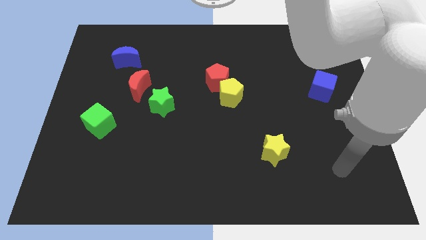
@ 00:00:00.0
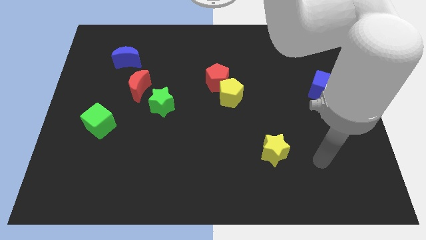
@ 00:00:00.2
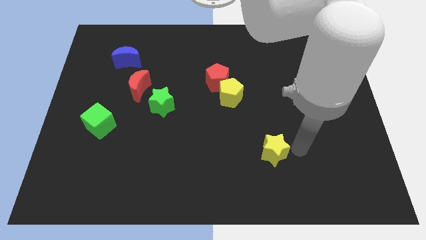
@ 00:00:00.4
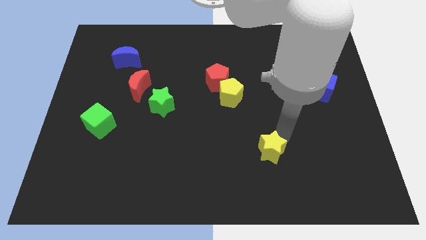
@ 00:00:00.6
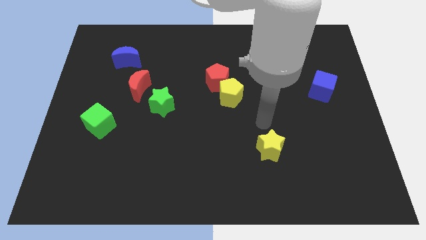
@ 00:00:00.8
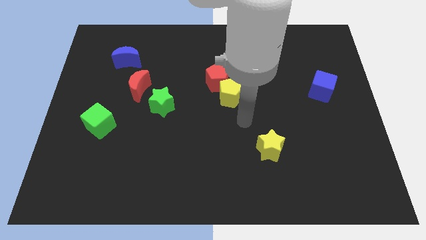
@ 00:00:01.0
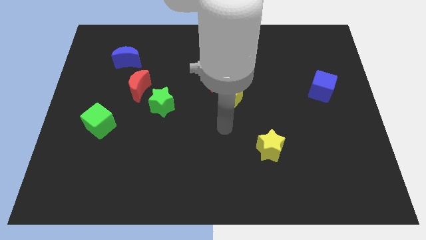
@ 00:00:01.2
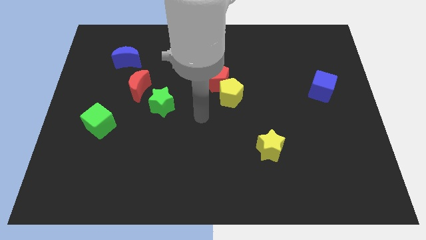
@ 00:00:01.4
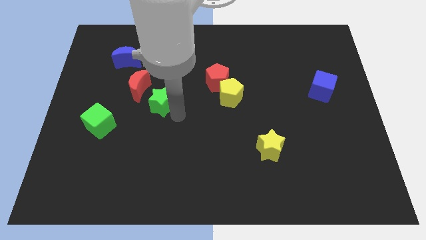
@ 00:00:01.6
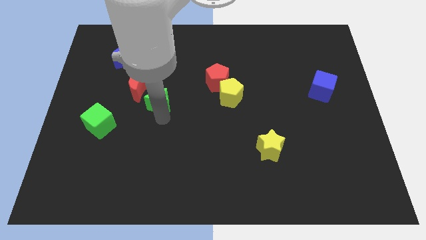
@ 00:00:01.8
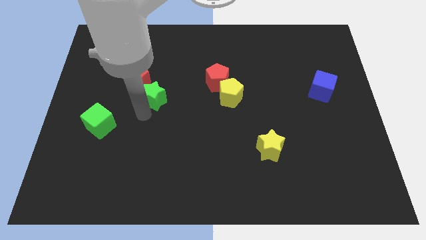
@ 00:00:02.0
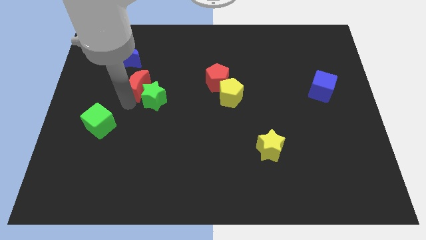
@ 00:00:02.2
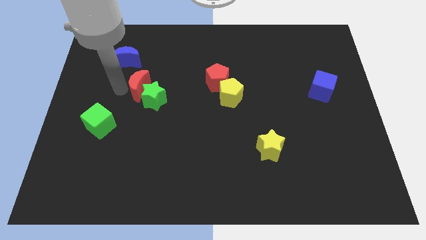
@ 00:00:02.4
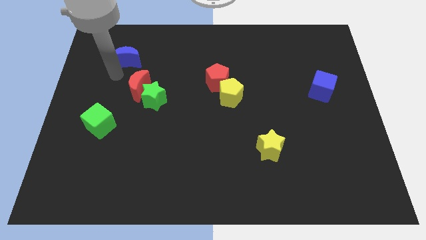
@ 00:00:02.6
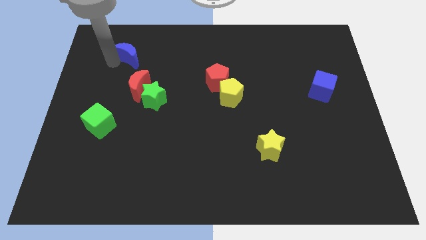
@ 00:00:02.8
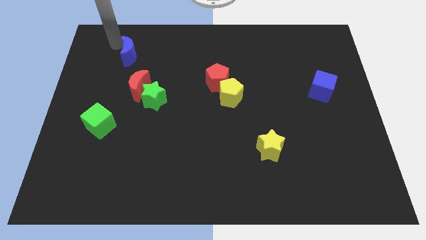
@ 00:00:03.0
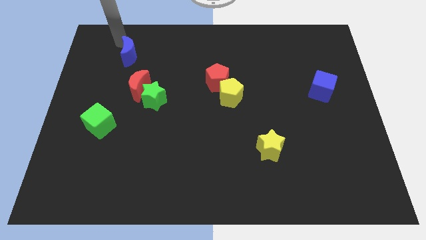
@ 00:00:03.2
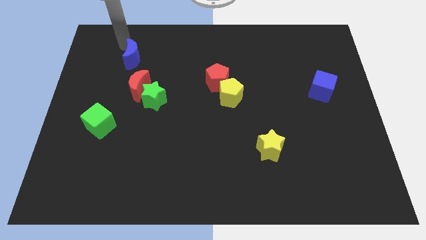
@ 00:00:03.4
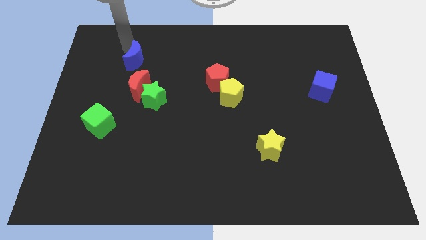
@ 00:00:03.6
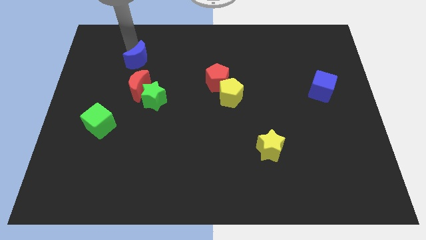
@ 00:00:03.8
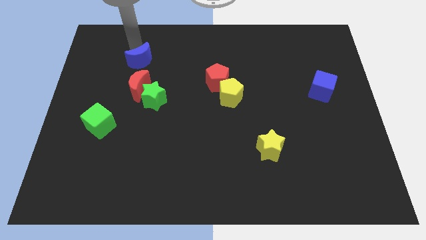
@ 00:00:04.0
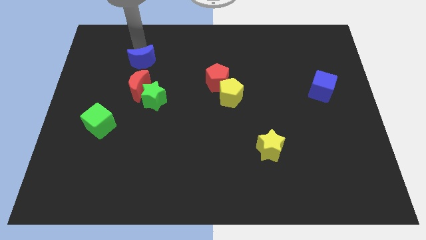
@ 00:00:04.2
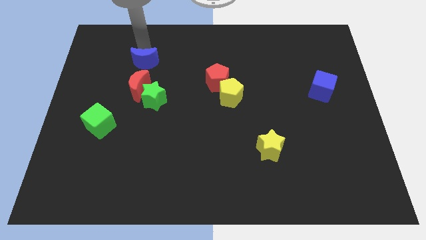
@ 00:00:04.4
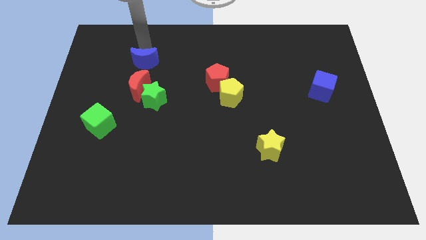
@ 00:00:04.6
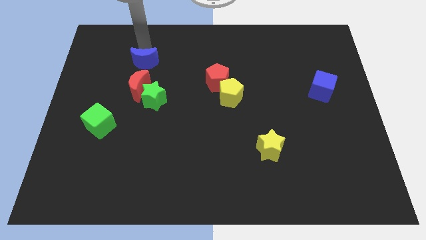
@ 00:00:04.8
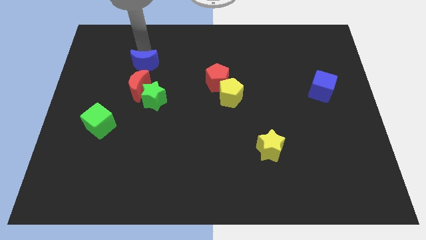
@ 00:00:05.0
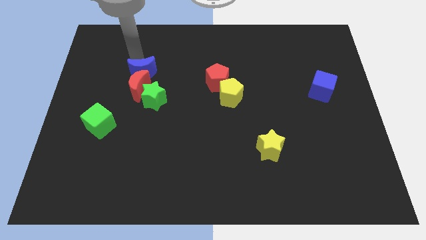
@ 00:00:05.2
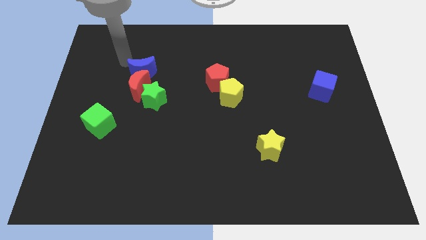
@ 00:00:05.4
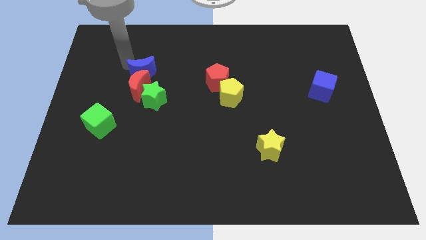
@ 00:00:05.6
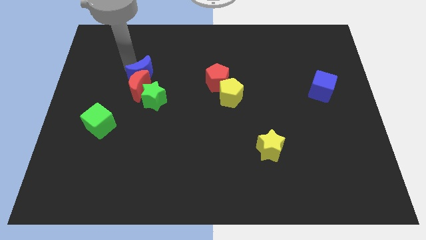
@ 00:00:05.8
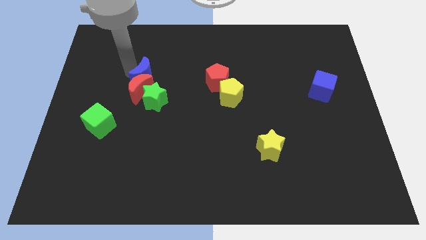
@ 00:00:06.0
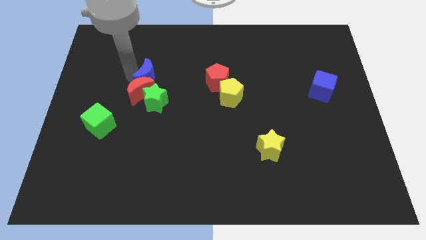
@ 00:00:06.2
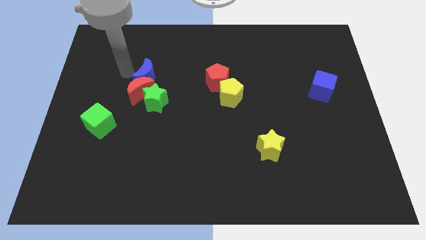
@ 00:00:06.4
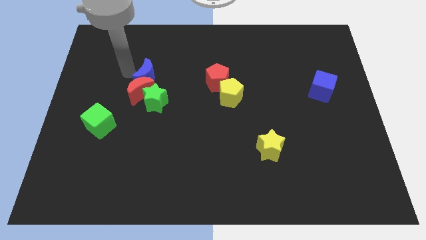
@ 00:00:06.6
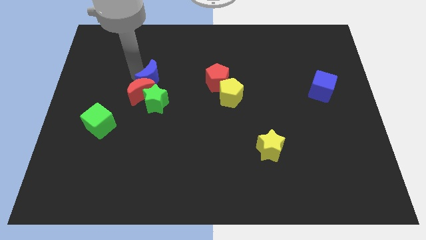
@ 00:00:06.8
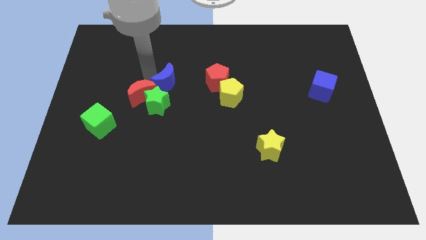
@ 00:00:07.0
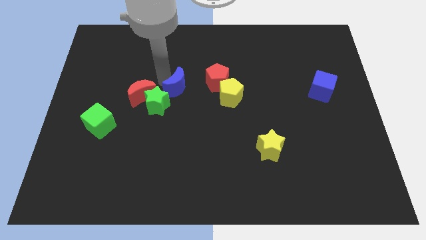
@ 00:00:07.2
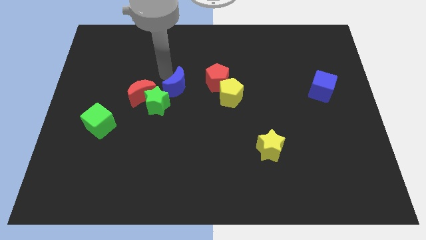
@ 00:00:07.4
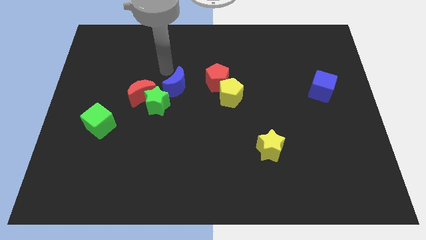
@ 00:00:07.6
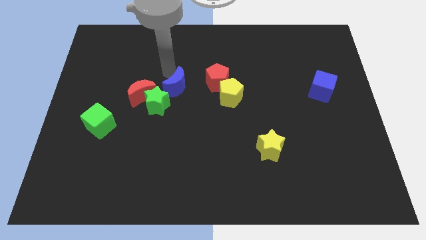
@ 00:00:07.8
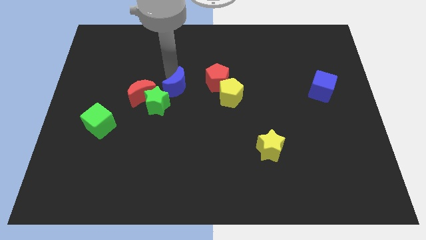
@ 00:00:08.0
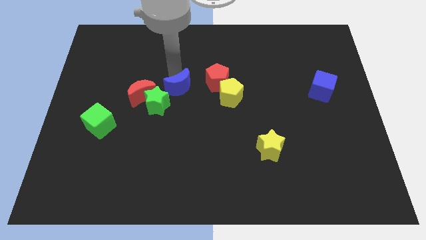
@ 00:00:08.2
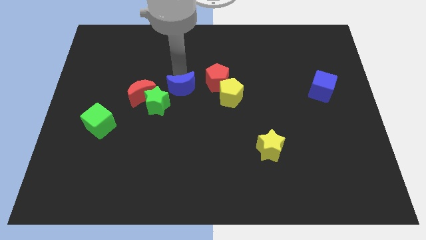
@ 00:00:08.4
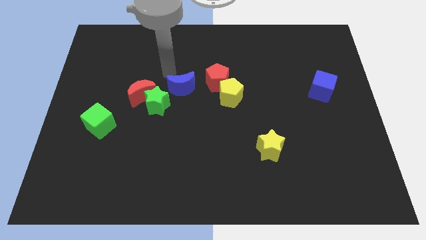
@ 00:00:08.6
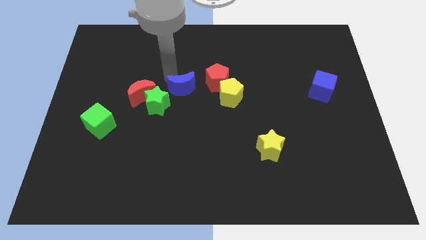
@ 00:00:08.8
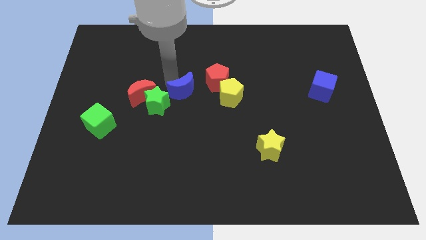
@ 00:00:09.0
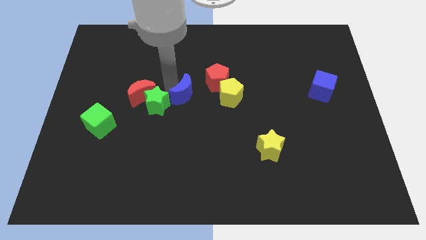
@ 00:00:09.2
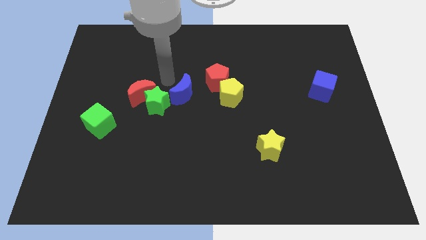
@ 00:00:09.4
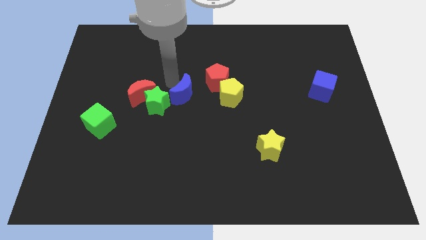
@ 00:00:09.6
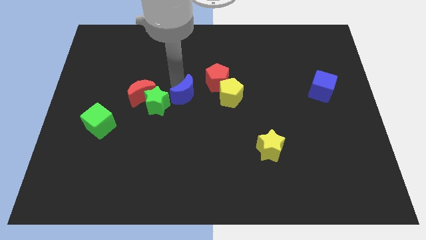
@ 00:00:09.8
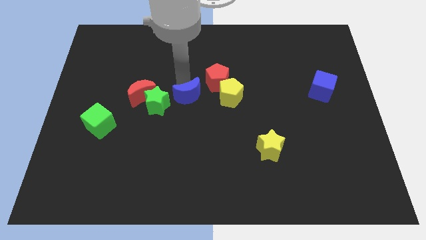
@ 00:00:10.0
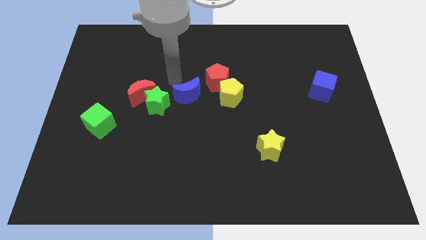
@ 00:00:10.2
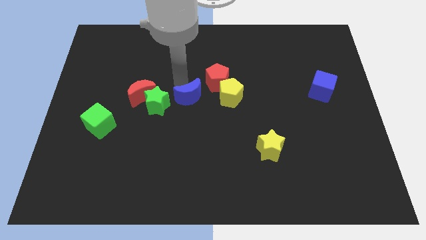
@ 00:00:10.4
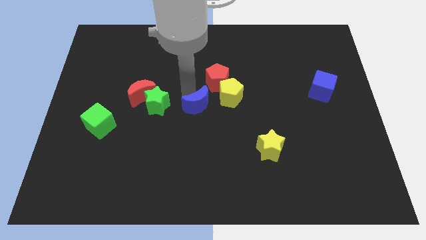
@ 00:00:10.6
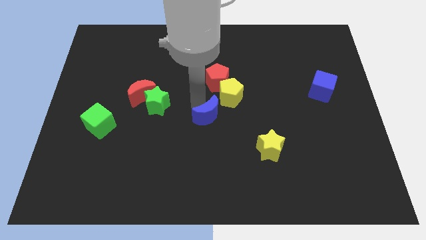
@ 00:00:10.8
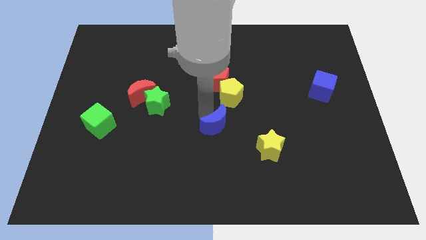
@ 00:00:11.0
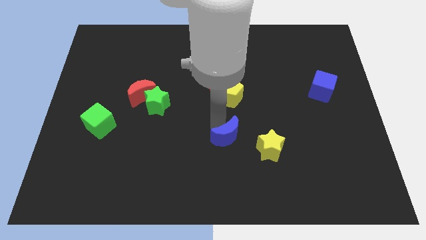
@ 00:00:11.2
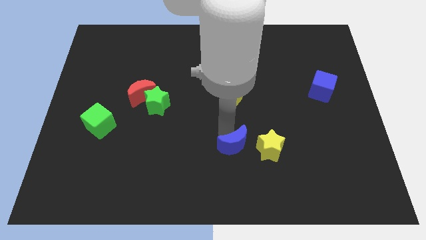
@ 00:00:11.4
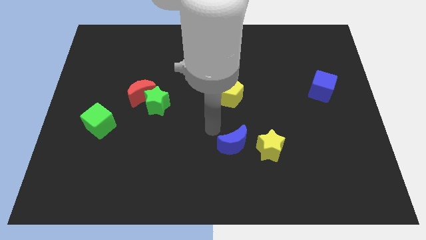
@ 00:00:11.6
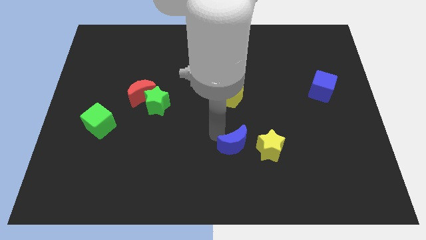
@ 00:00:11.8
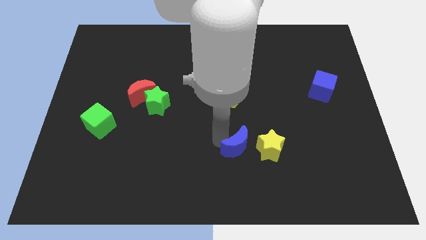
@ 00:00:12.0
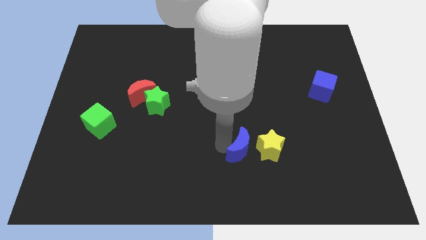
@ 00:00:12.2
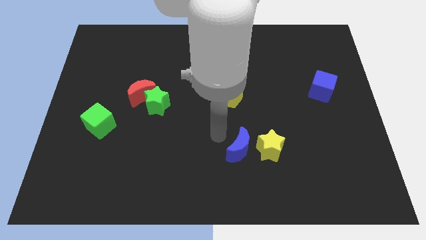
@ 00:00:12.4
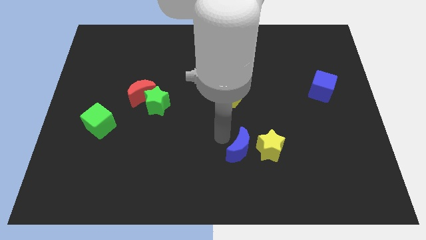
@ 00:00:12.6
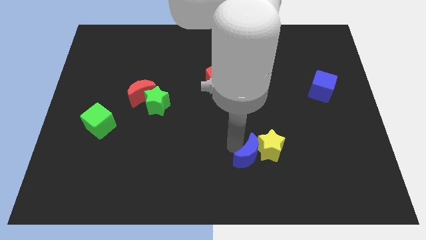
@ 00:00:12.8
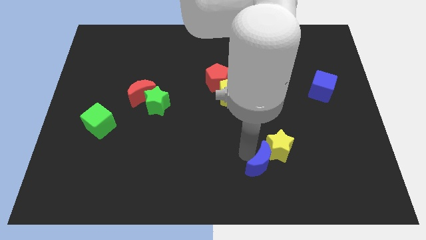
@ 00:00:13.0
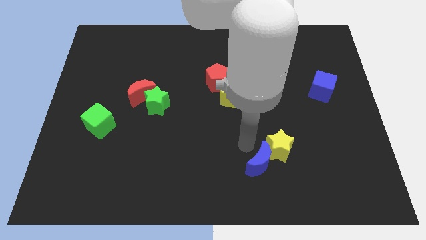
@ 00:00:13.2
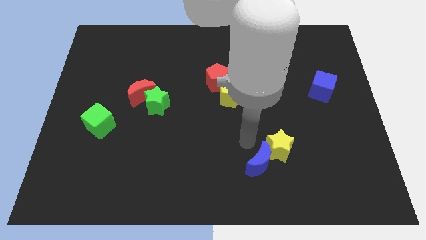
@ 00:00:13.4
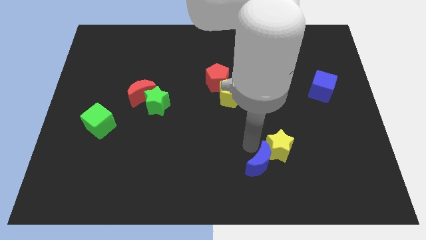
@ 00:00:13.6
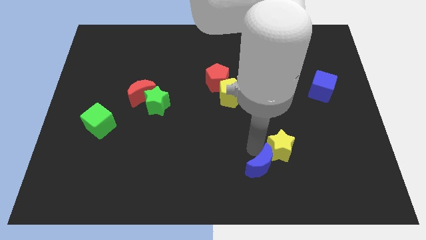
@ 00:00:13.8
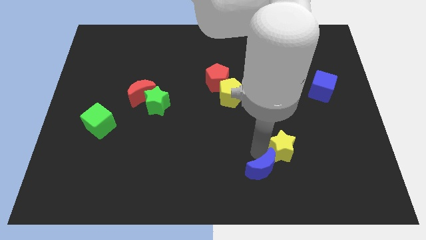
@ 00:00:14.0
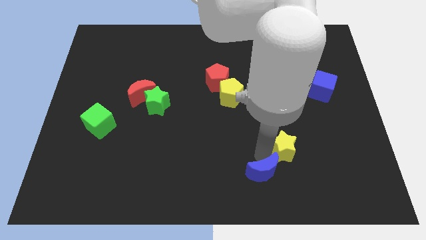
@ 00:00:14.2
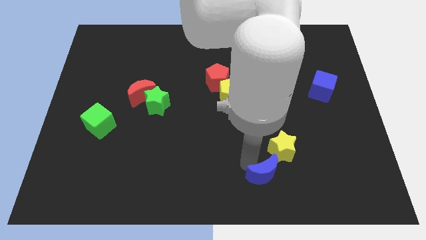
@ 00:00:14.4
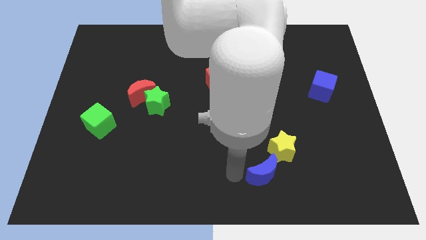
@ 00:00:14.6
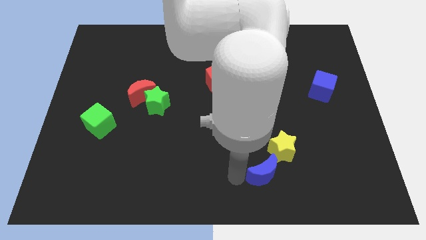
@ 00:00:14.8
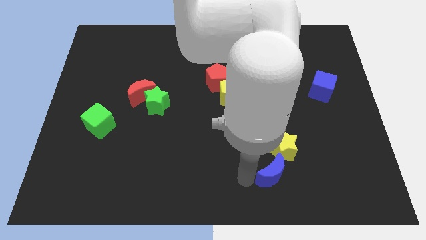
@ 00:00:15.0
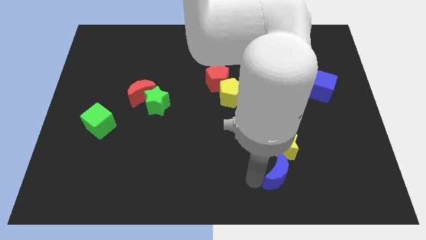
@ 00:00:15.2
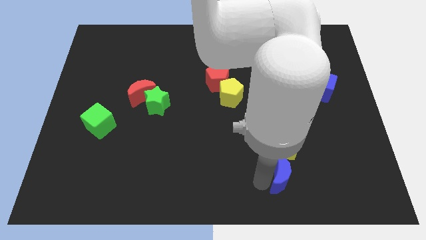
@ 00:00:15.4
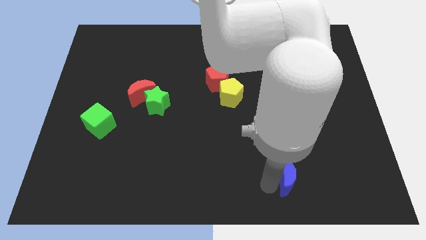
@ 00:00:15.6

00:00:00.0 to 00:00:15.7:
push the blue moon to the bottom right of the yellow star
